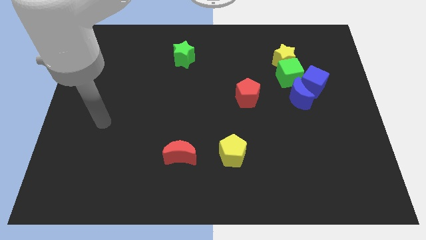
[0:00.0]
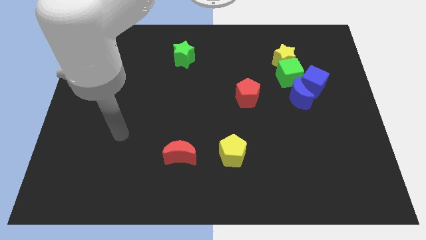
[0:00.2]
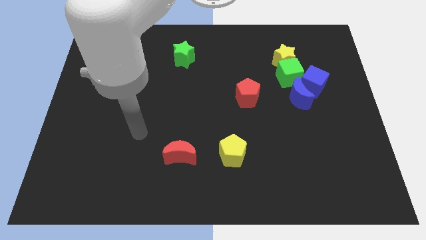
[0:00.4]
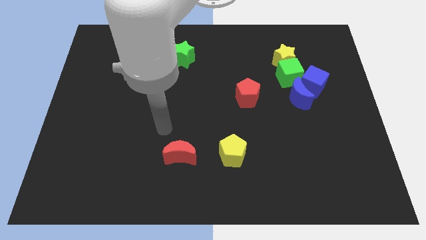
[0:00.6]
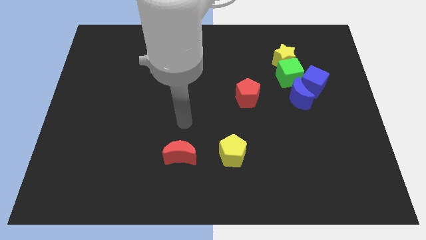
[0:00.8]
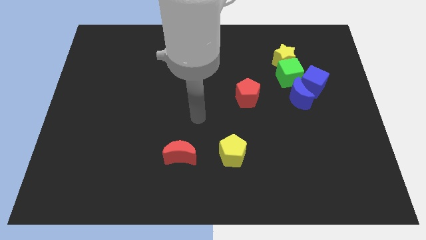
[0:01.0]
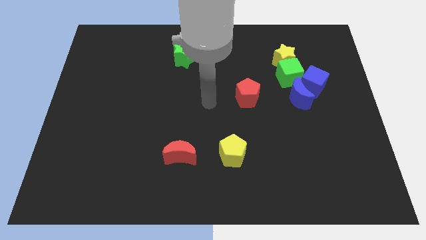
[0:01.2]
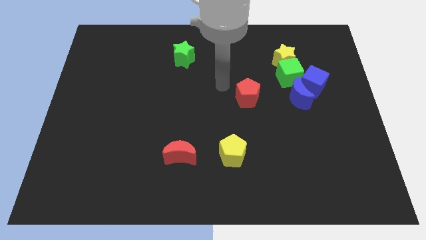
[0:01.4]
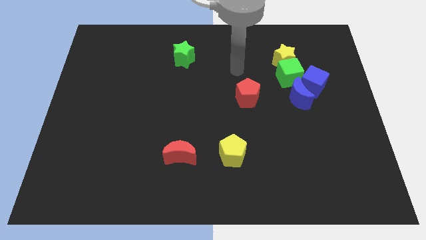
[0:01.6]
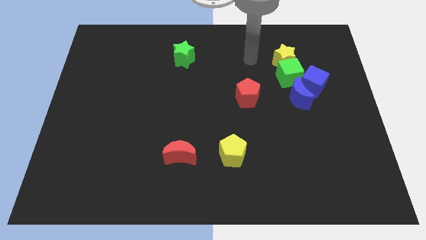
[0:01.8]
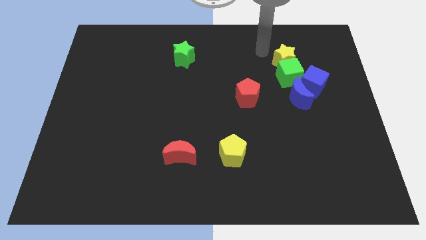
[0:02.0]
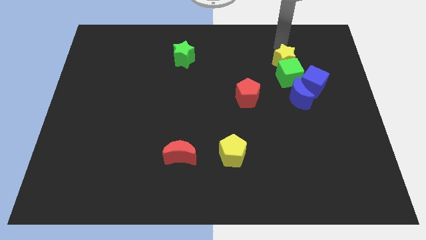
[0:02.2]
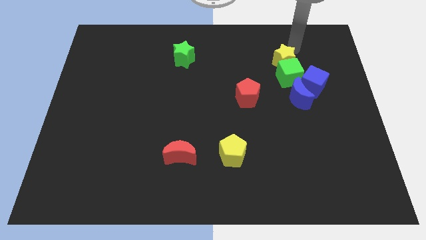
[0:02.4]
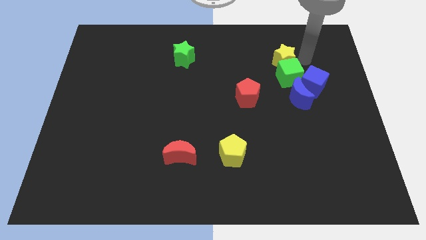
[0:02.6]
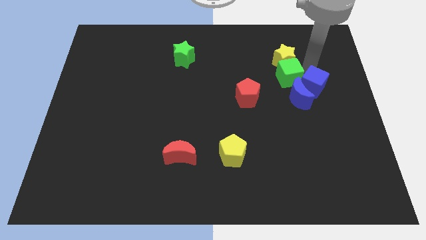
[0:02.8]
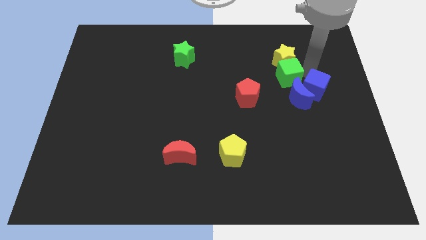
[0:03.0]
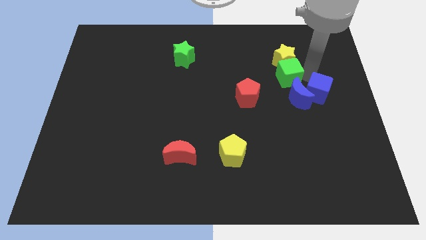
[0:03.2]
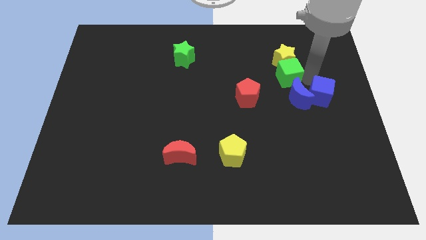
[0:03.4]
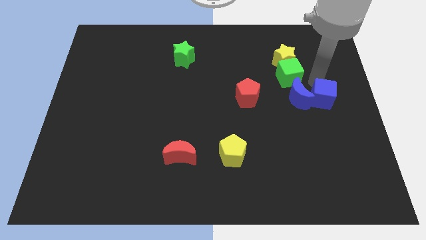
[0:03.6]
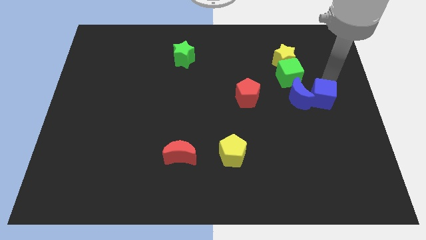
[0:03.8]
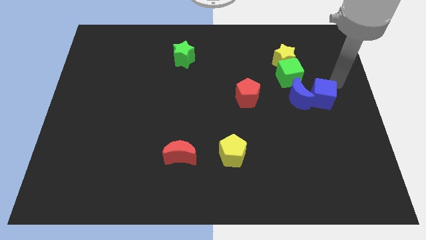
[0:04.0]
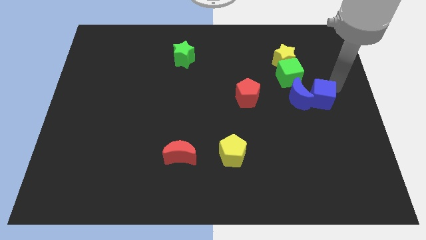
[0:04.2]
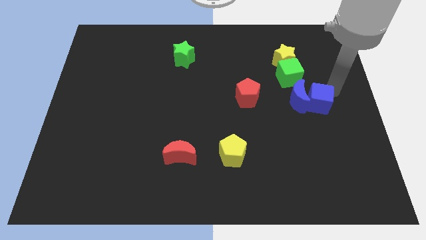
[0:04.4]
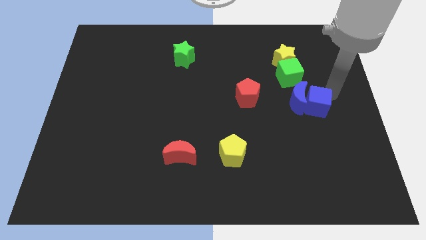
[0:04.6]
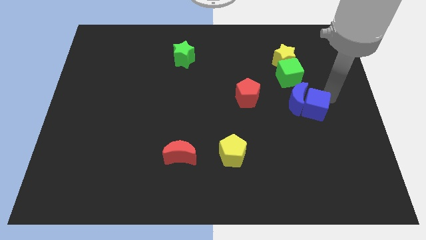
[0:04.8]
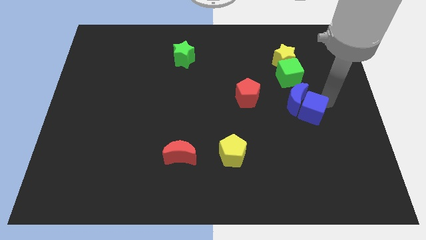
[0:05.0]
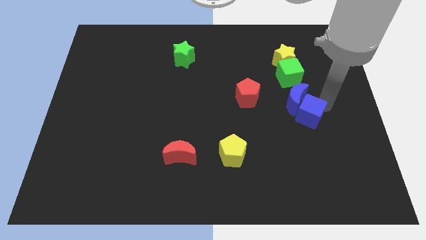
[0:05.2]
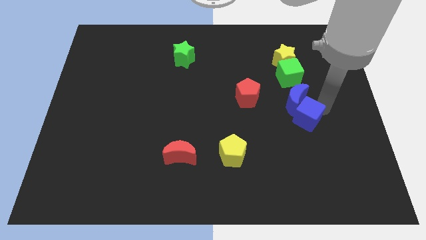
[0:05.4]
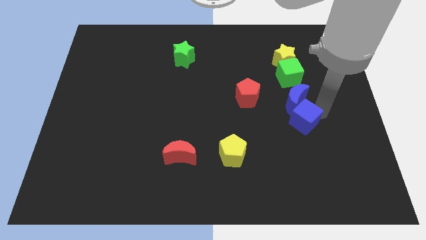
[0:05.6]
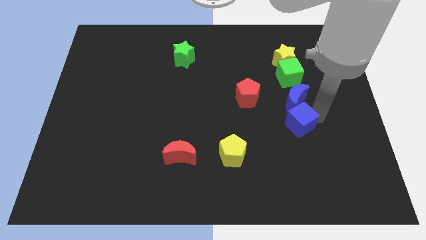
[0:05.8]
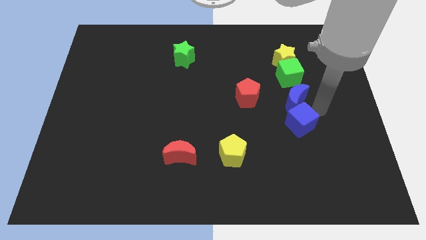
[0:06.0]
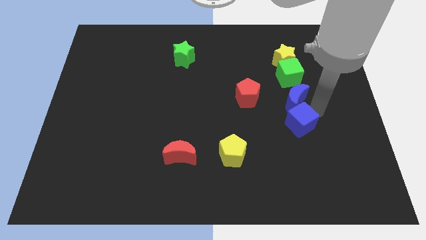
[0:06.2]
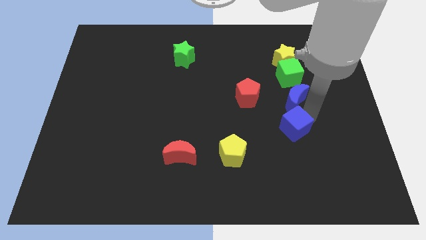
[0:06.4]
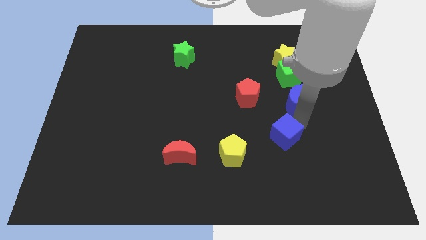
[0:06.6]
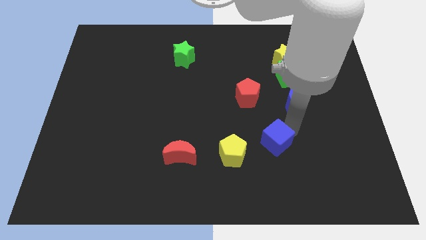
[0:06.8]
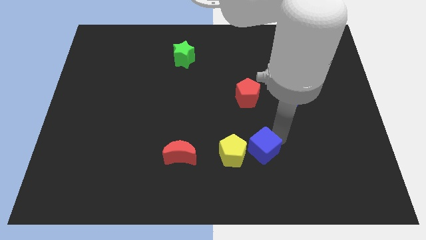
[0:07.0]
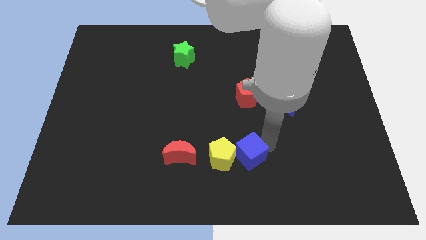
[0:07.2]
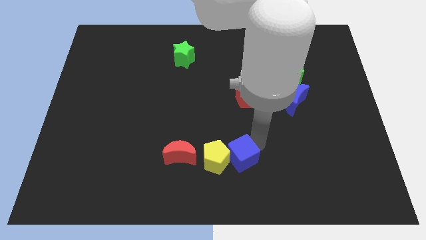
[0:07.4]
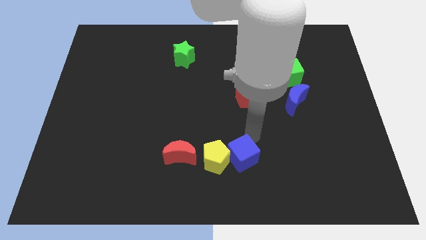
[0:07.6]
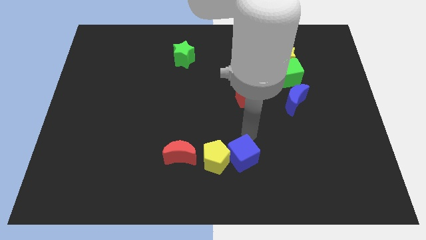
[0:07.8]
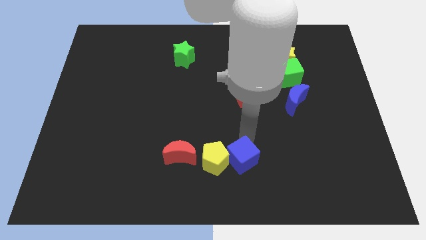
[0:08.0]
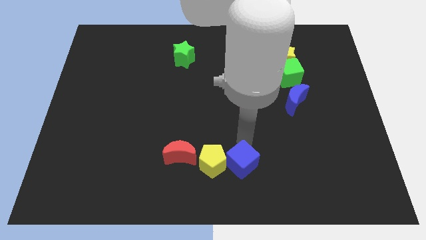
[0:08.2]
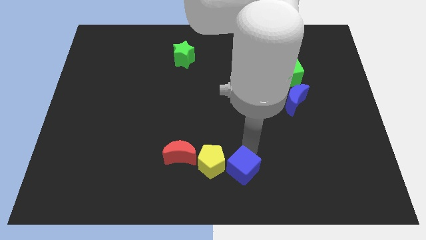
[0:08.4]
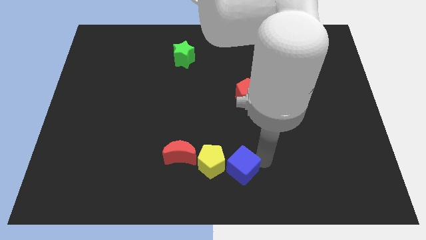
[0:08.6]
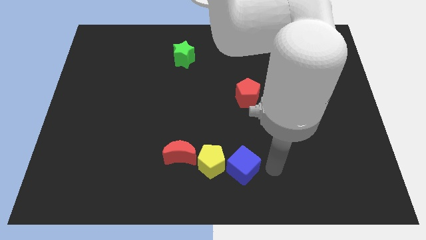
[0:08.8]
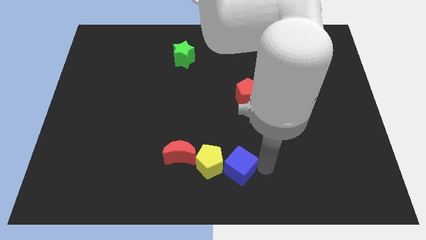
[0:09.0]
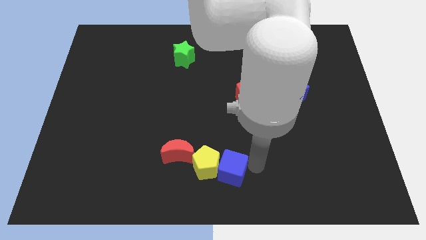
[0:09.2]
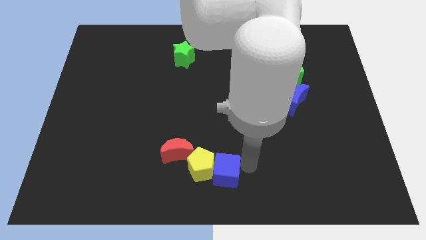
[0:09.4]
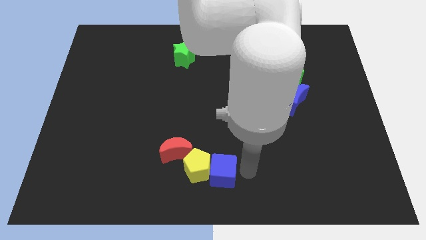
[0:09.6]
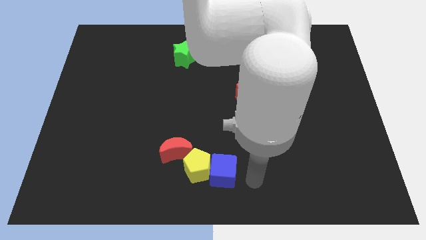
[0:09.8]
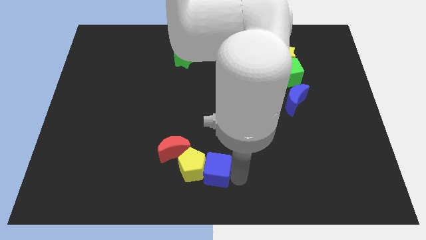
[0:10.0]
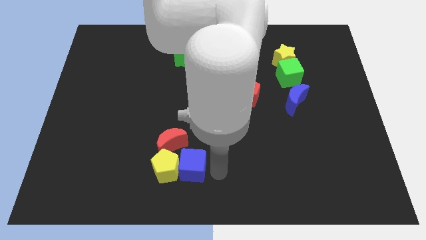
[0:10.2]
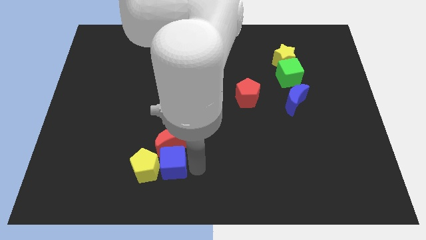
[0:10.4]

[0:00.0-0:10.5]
push the blue cube to the bottom left of the red moon

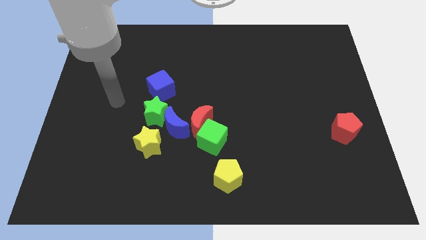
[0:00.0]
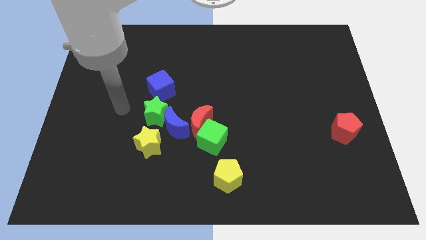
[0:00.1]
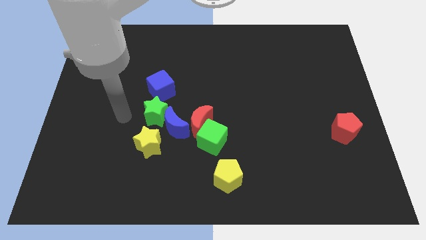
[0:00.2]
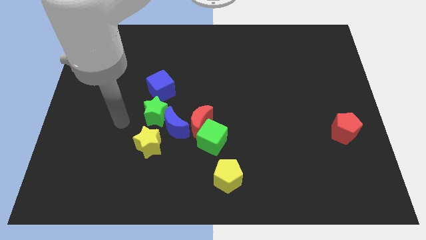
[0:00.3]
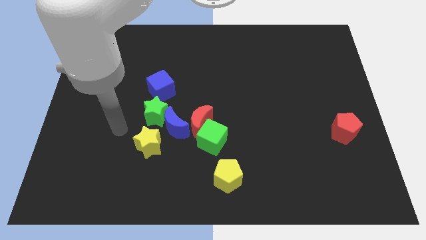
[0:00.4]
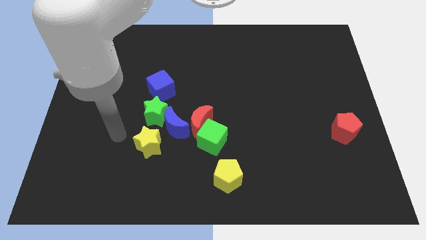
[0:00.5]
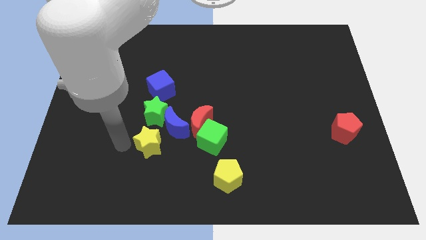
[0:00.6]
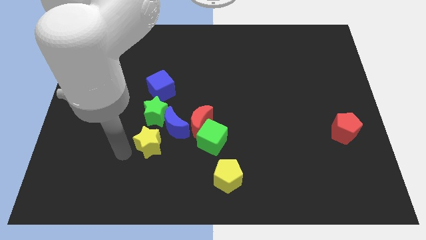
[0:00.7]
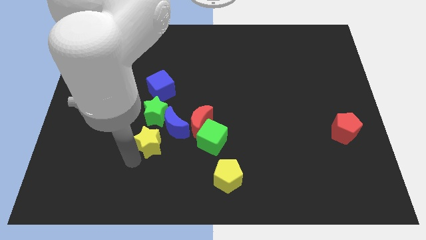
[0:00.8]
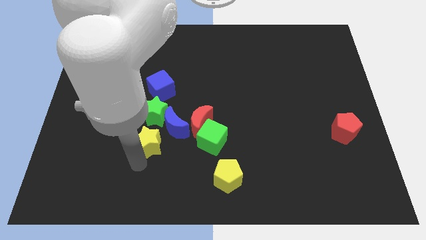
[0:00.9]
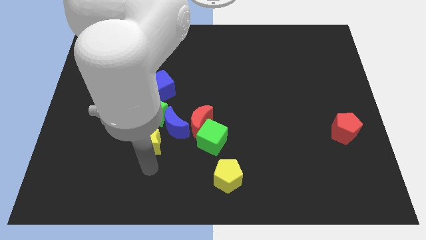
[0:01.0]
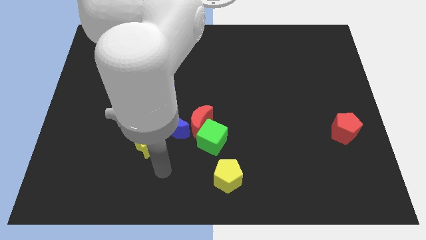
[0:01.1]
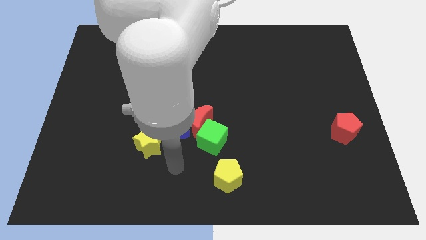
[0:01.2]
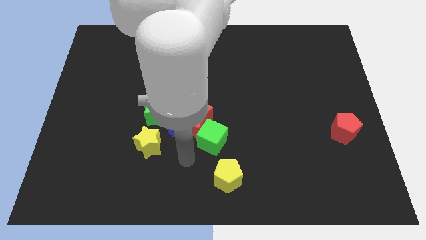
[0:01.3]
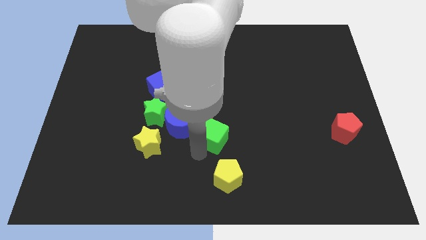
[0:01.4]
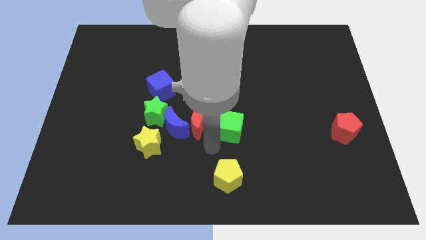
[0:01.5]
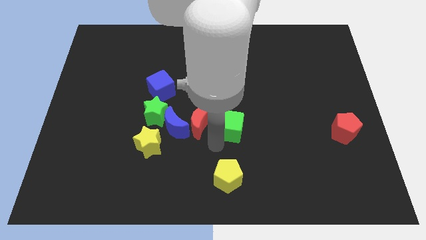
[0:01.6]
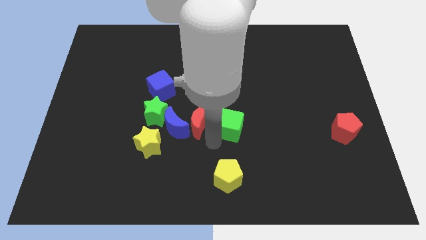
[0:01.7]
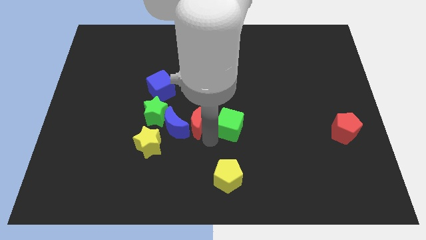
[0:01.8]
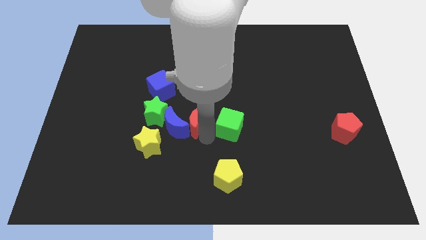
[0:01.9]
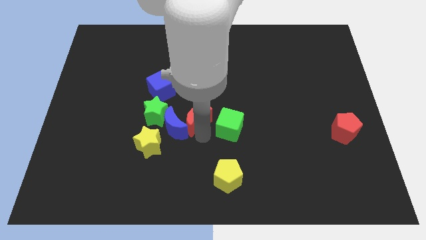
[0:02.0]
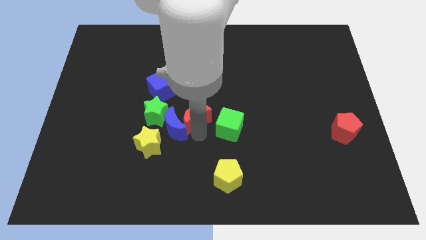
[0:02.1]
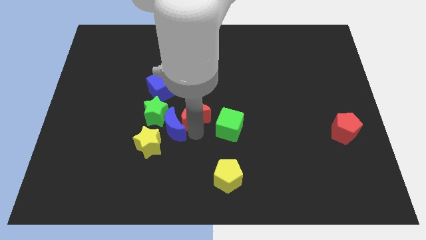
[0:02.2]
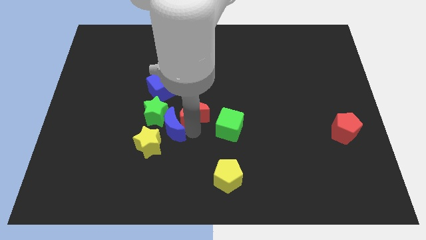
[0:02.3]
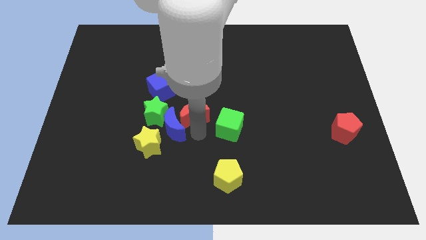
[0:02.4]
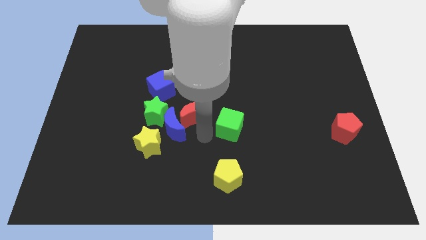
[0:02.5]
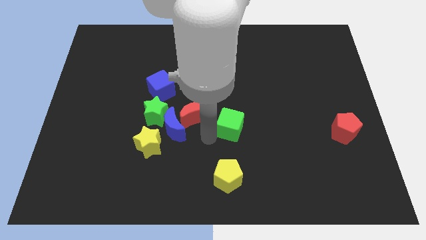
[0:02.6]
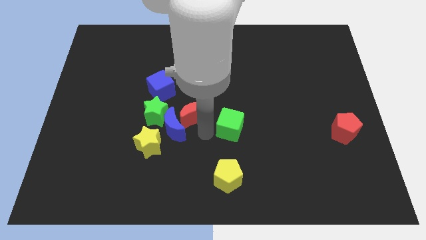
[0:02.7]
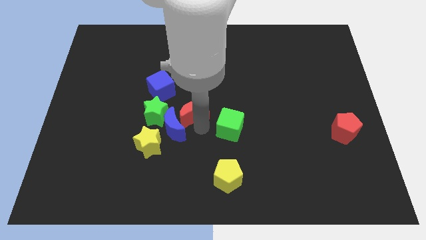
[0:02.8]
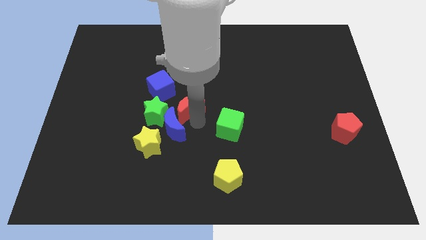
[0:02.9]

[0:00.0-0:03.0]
push the red moon to the top right of the green star
